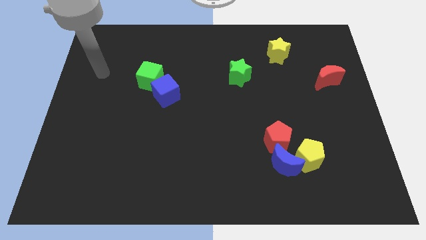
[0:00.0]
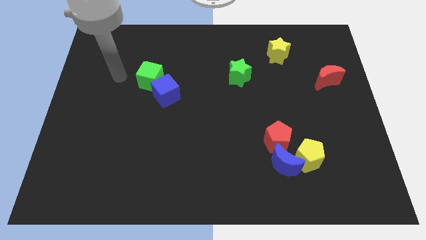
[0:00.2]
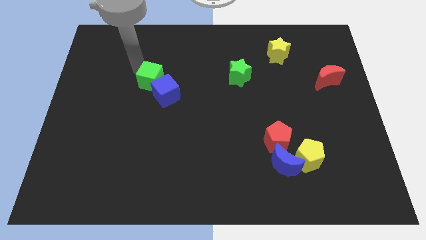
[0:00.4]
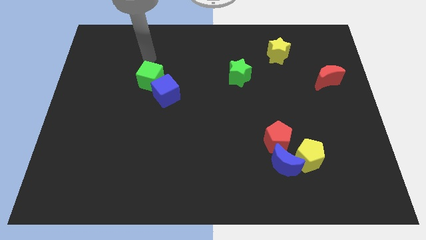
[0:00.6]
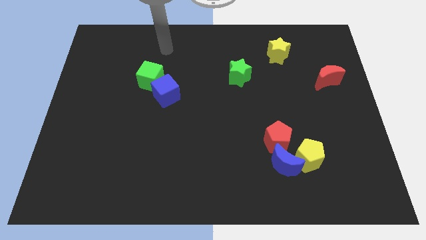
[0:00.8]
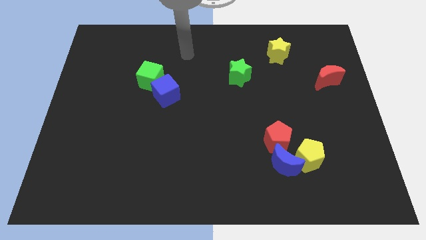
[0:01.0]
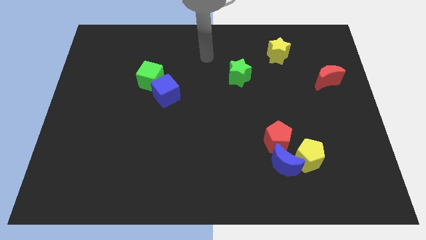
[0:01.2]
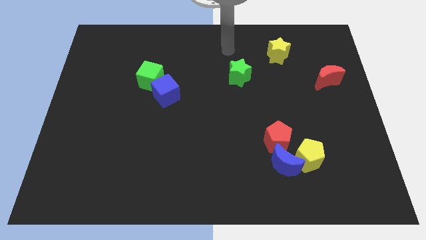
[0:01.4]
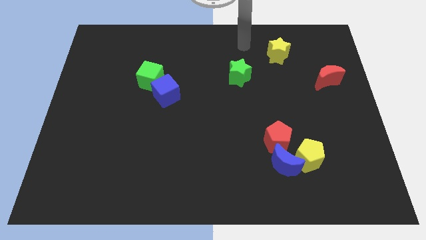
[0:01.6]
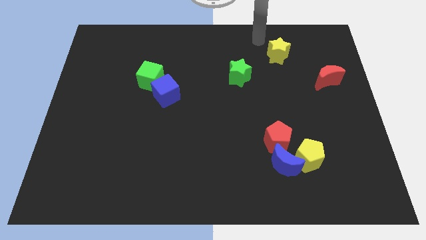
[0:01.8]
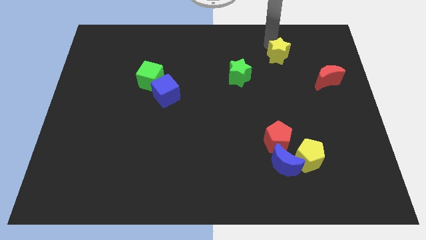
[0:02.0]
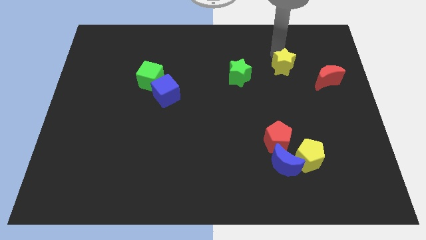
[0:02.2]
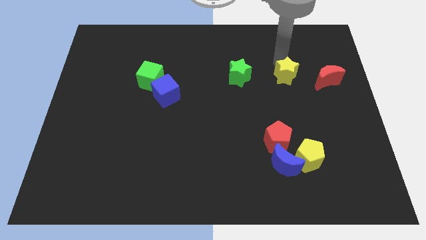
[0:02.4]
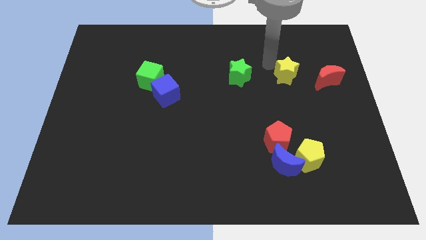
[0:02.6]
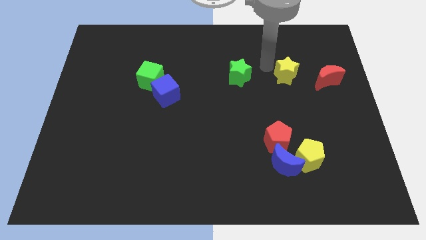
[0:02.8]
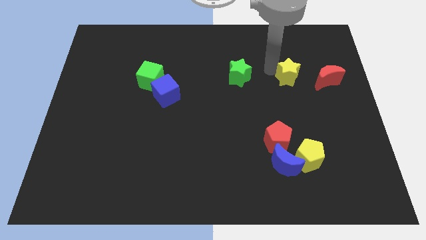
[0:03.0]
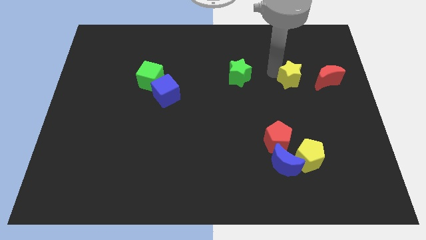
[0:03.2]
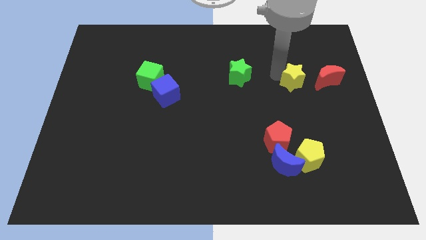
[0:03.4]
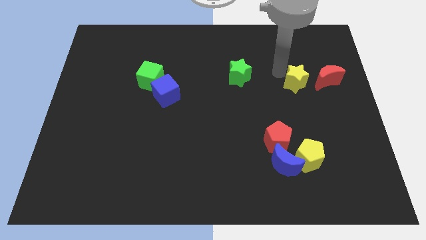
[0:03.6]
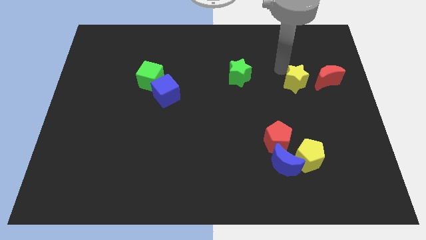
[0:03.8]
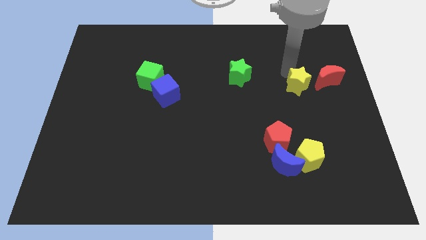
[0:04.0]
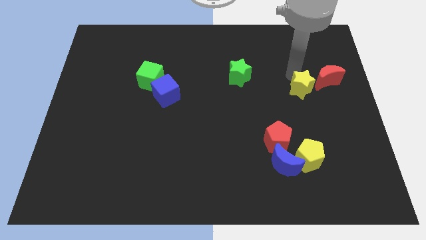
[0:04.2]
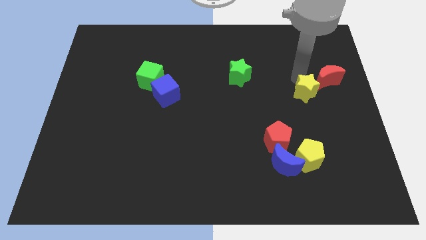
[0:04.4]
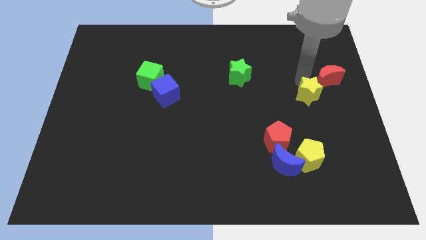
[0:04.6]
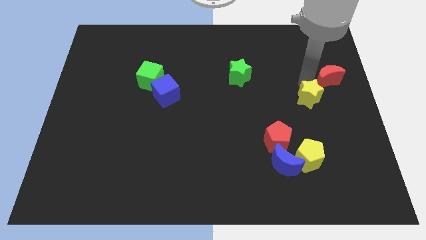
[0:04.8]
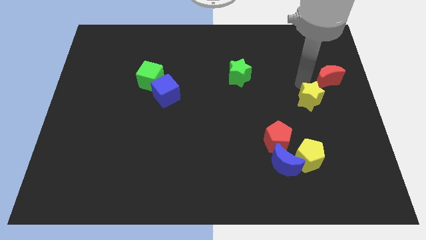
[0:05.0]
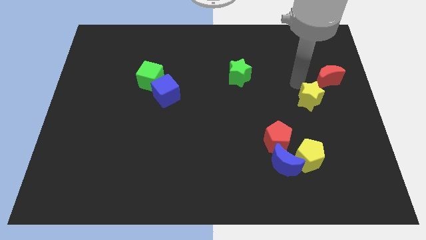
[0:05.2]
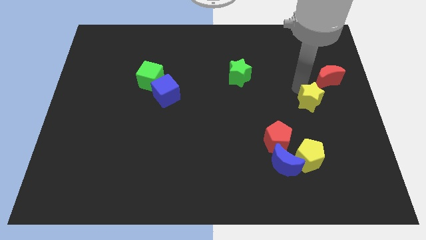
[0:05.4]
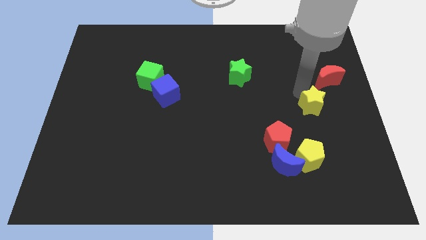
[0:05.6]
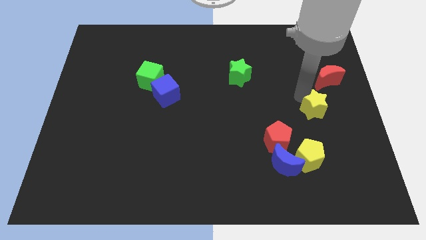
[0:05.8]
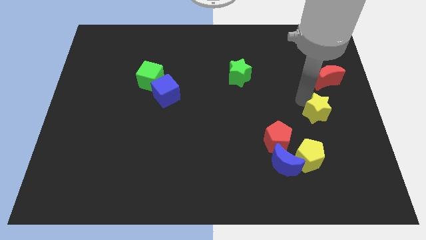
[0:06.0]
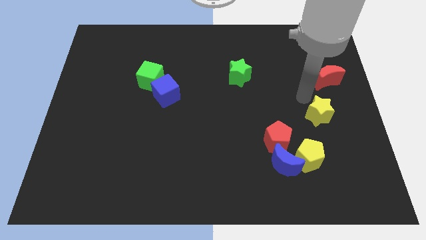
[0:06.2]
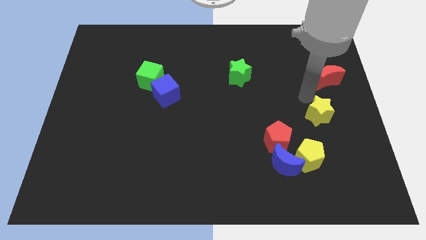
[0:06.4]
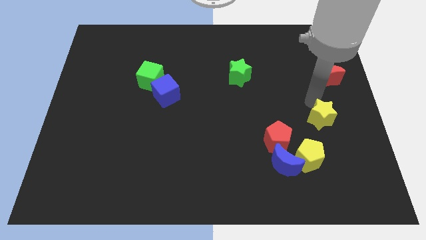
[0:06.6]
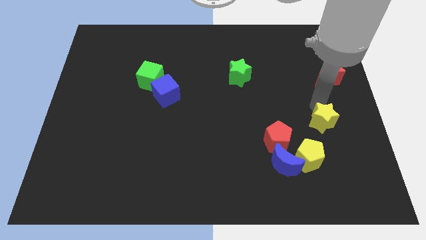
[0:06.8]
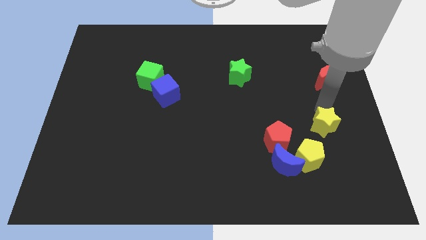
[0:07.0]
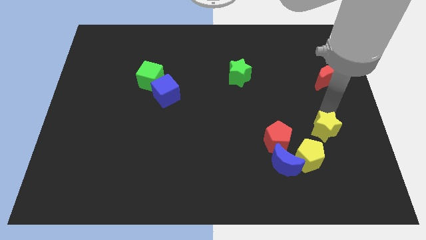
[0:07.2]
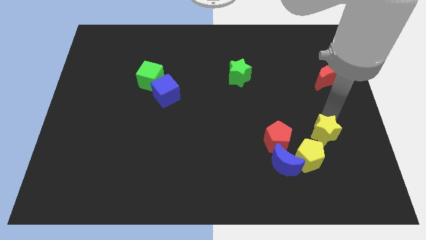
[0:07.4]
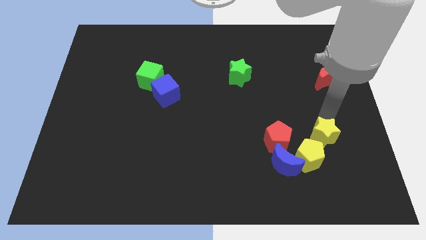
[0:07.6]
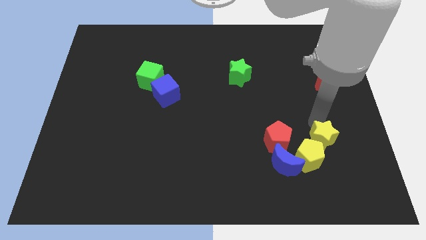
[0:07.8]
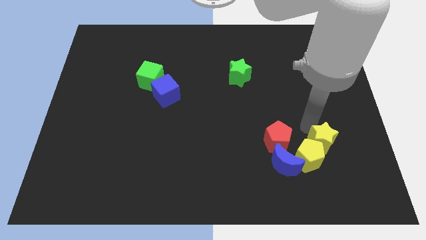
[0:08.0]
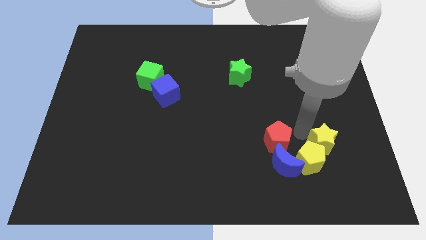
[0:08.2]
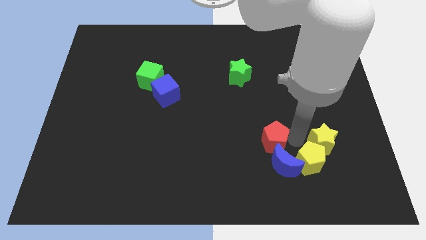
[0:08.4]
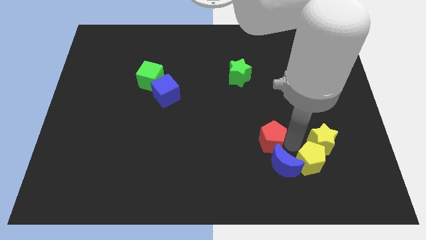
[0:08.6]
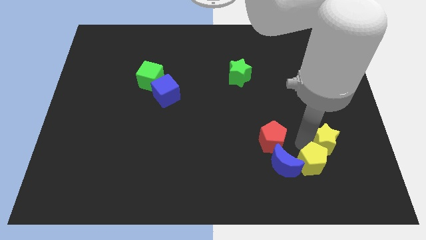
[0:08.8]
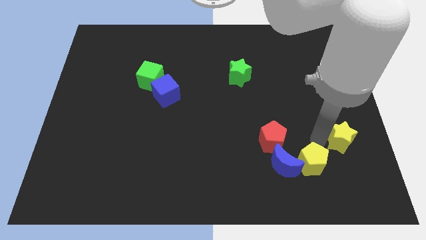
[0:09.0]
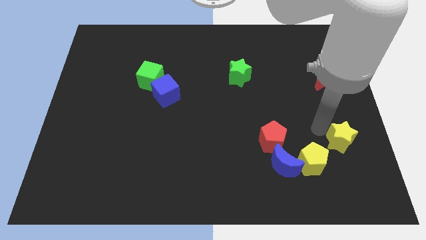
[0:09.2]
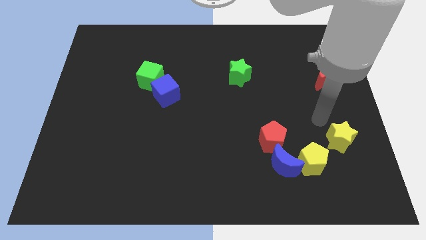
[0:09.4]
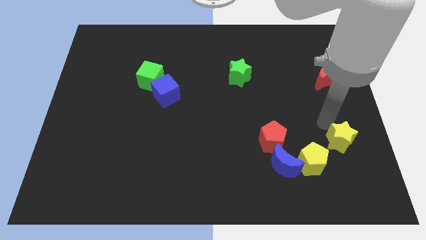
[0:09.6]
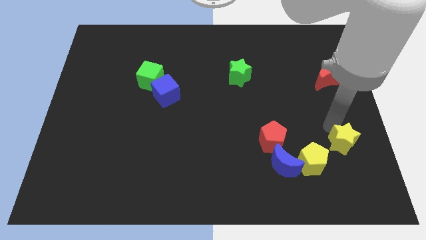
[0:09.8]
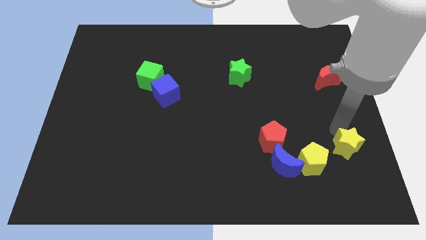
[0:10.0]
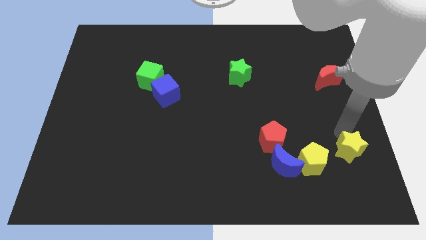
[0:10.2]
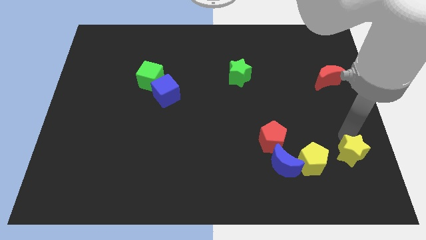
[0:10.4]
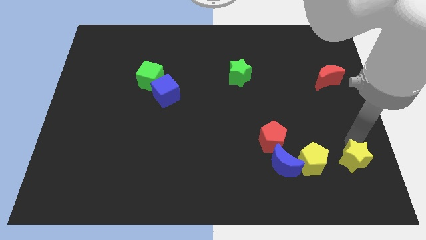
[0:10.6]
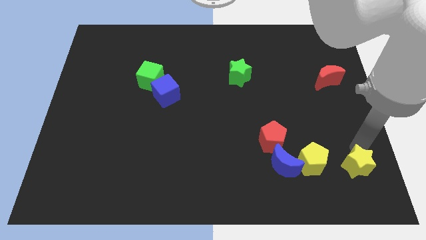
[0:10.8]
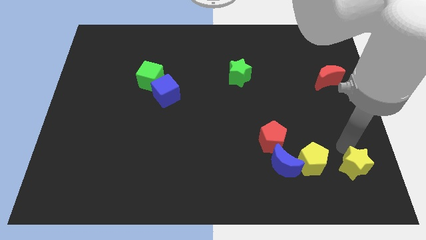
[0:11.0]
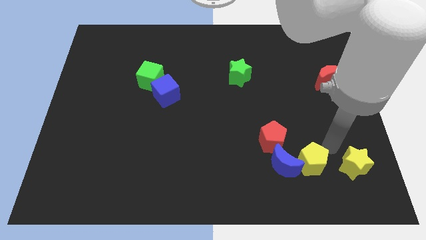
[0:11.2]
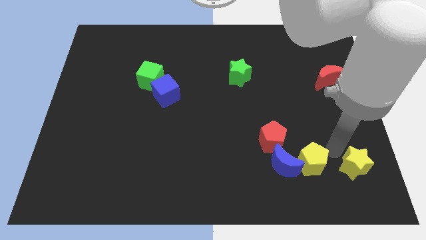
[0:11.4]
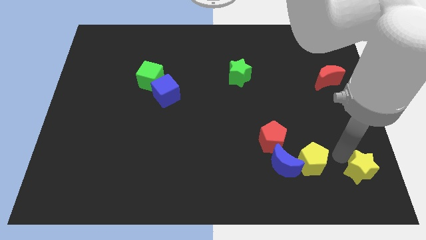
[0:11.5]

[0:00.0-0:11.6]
move the yellow star to the lower right corner
